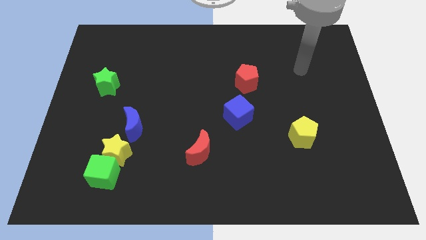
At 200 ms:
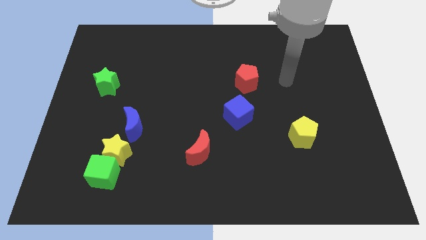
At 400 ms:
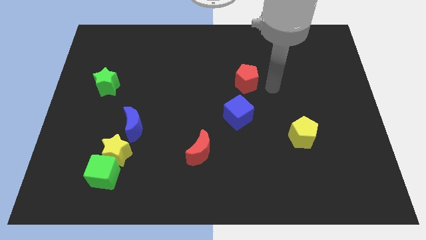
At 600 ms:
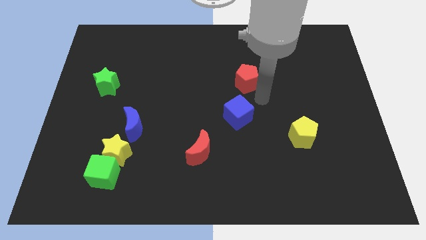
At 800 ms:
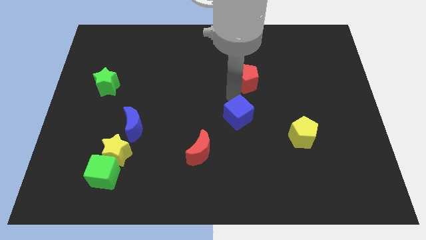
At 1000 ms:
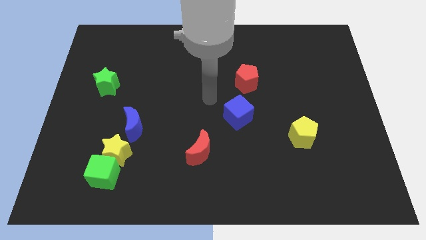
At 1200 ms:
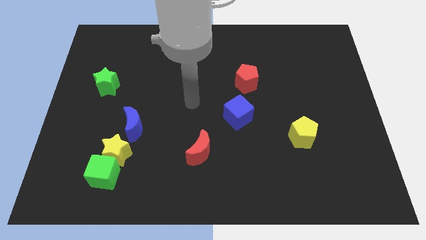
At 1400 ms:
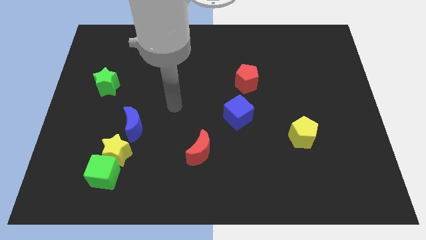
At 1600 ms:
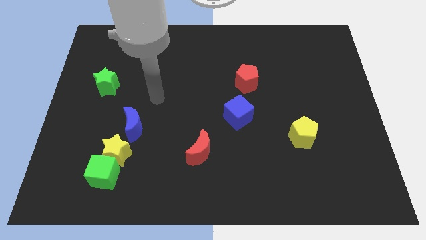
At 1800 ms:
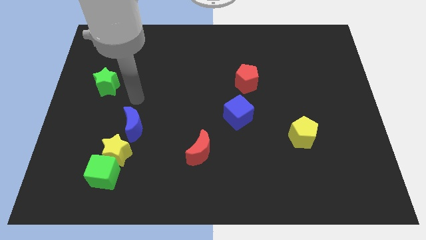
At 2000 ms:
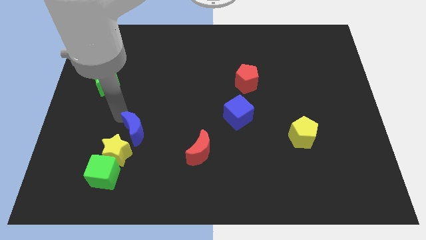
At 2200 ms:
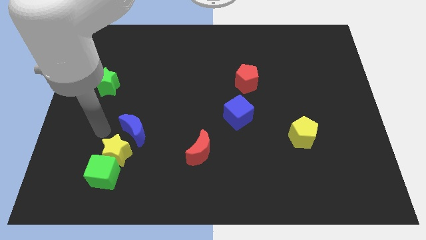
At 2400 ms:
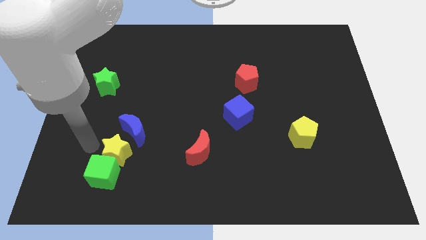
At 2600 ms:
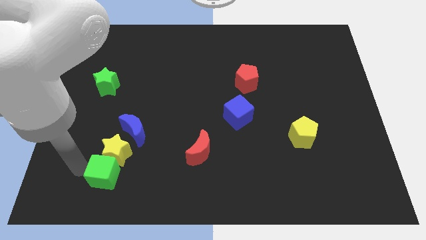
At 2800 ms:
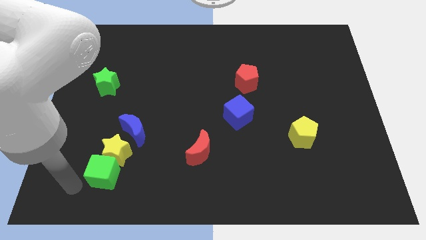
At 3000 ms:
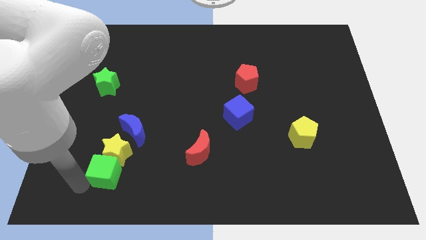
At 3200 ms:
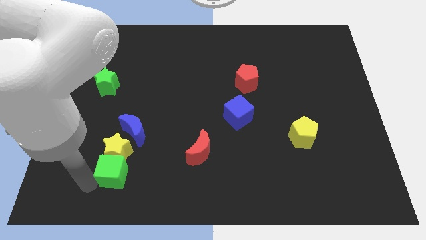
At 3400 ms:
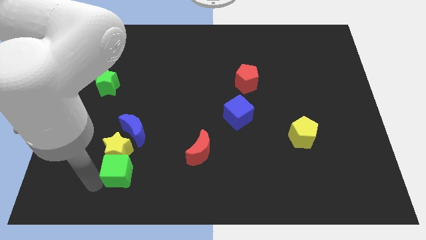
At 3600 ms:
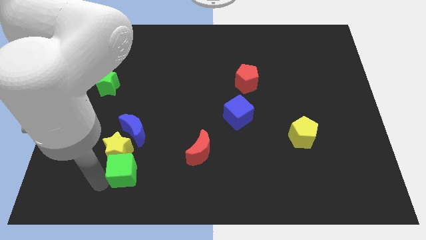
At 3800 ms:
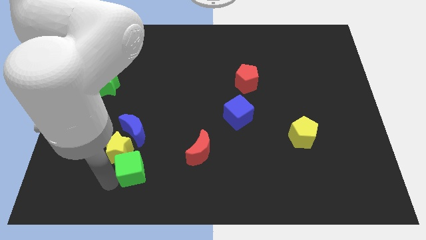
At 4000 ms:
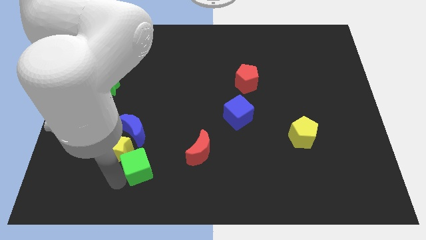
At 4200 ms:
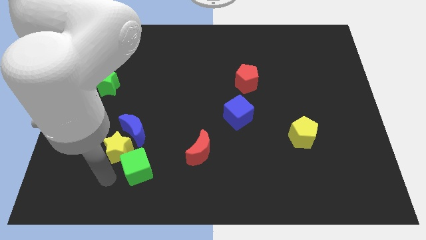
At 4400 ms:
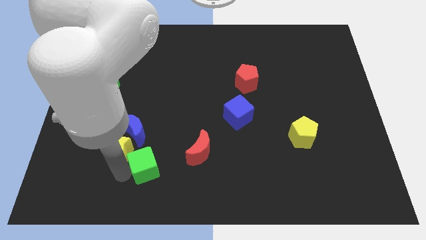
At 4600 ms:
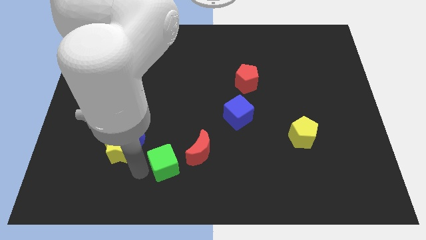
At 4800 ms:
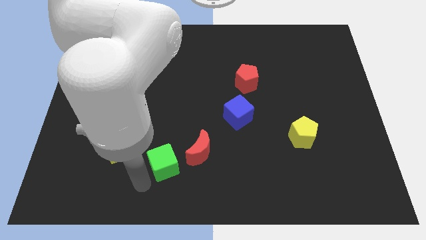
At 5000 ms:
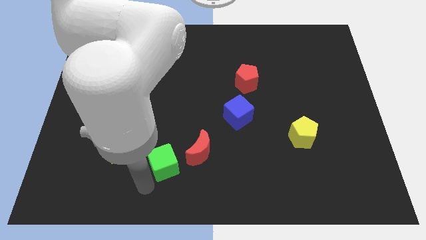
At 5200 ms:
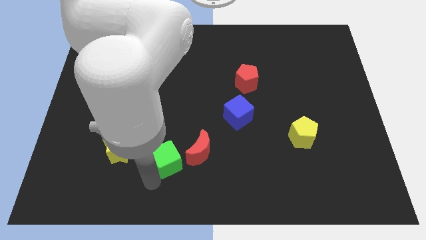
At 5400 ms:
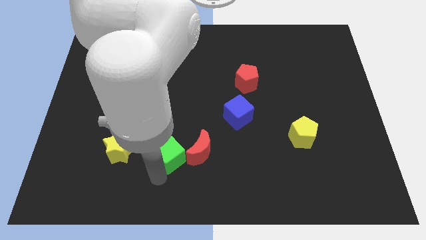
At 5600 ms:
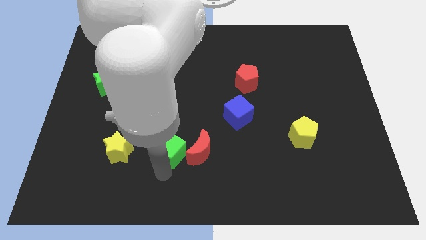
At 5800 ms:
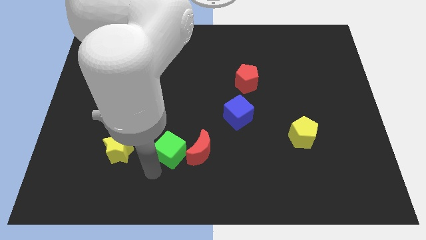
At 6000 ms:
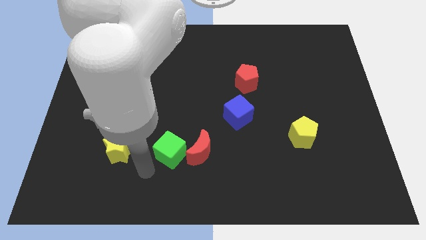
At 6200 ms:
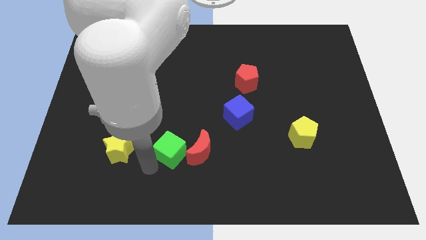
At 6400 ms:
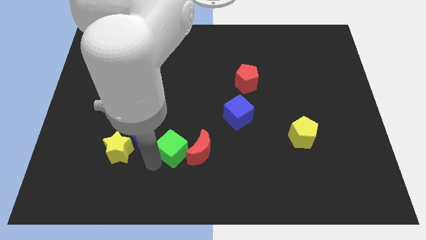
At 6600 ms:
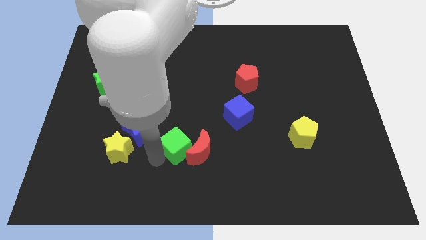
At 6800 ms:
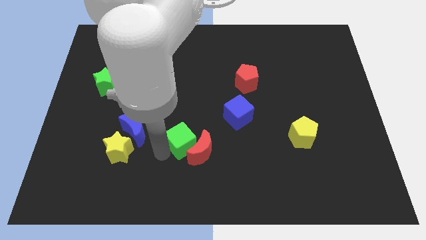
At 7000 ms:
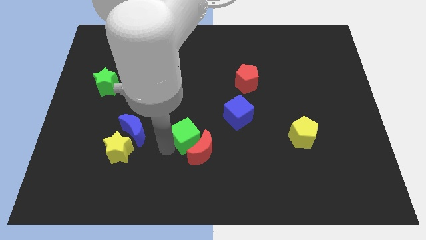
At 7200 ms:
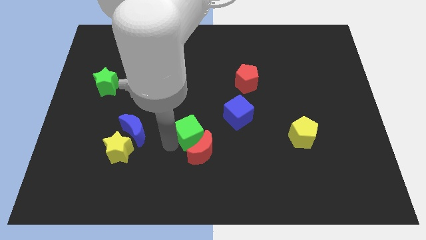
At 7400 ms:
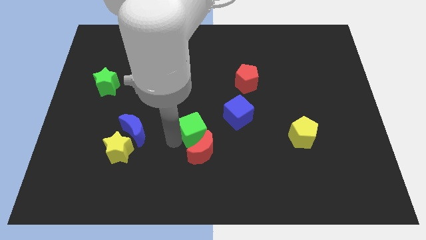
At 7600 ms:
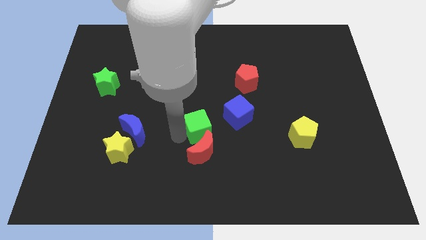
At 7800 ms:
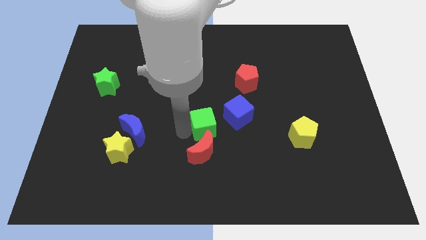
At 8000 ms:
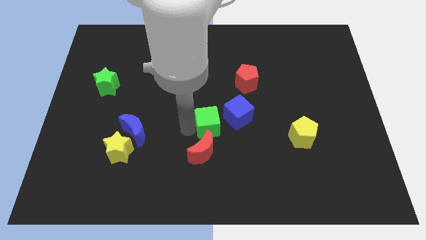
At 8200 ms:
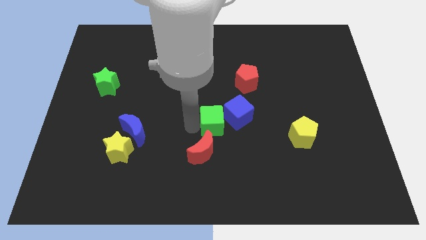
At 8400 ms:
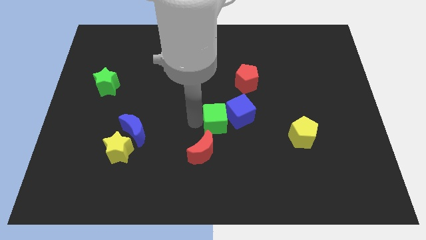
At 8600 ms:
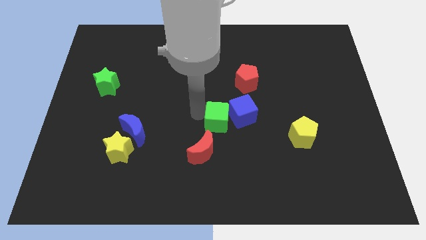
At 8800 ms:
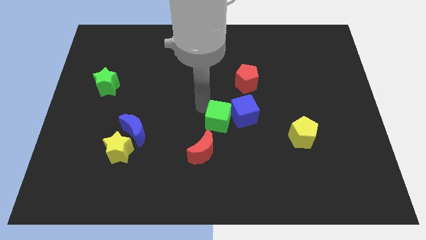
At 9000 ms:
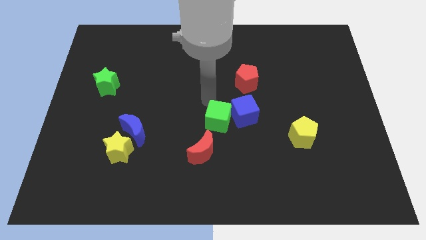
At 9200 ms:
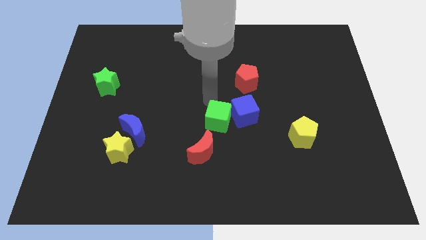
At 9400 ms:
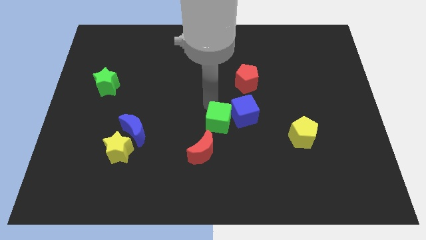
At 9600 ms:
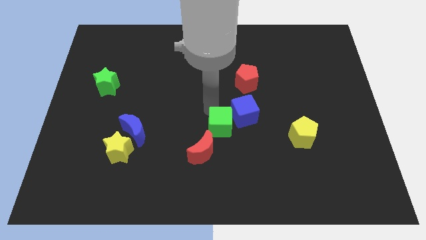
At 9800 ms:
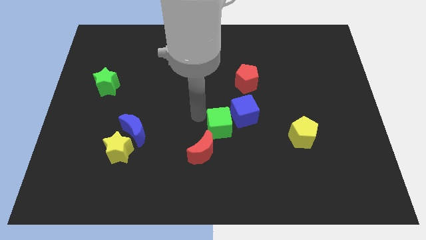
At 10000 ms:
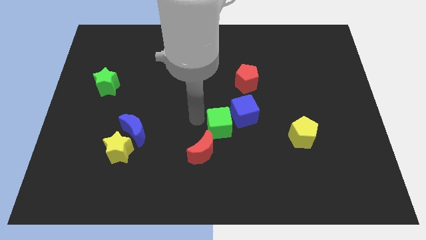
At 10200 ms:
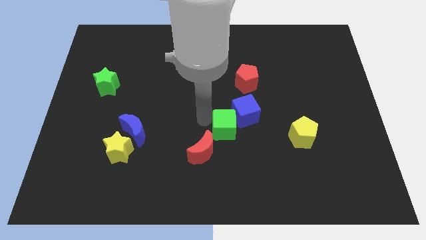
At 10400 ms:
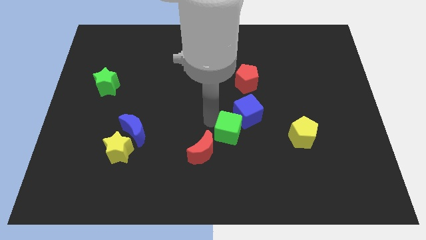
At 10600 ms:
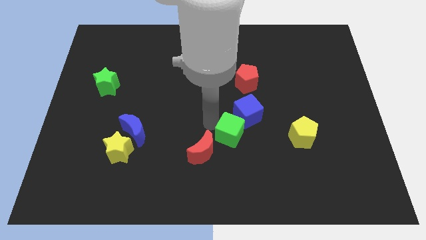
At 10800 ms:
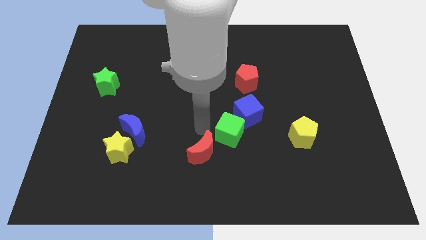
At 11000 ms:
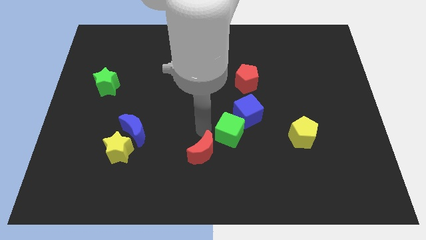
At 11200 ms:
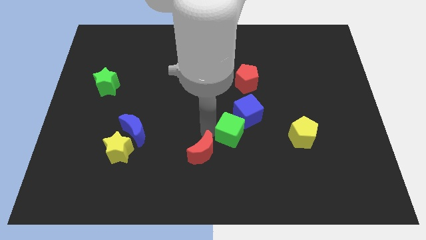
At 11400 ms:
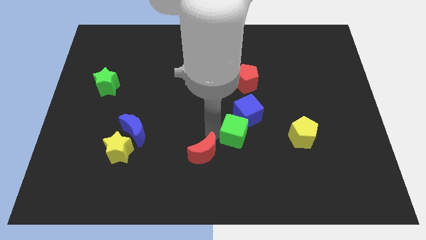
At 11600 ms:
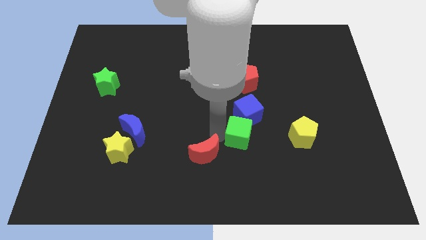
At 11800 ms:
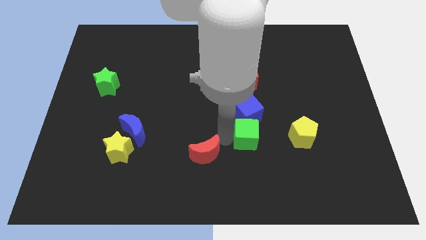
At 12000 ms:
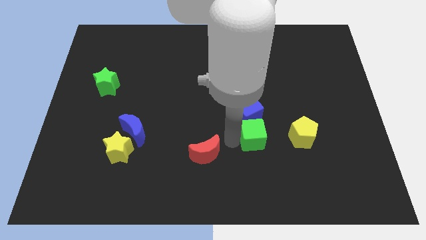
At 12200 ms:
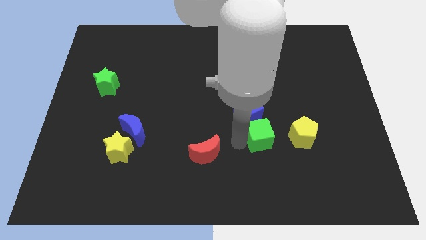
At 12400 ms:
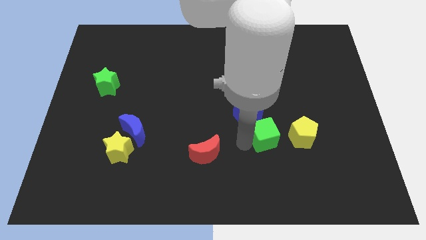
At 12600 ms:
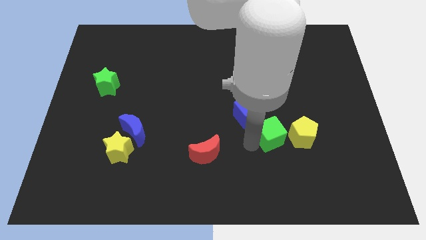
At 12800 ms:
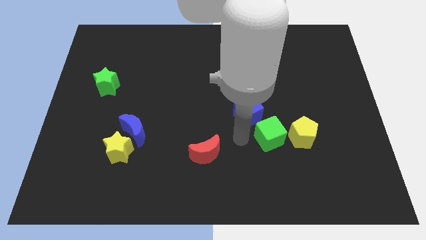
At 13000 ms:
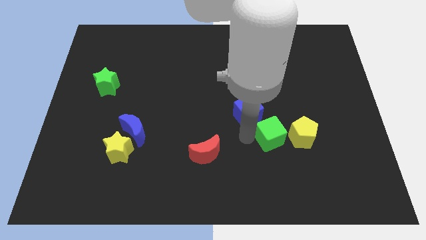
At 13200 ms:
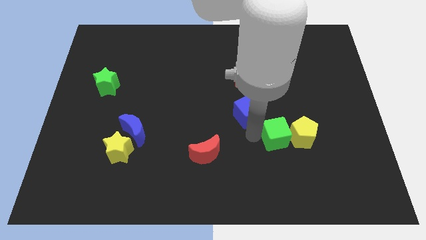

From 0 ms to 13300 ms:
slide the green cube close to the yellow pentagon

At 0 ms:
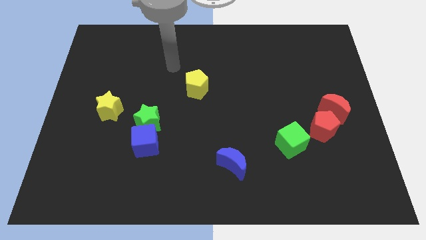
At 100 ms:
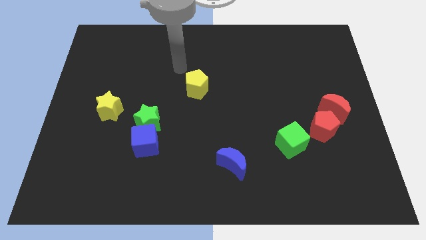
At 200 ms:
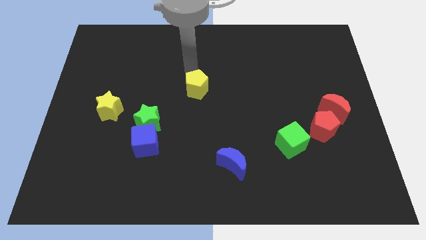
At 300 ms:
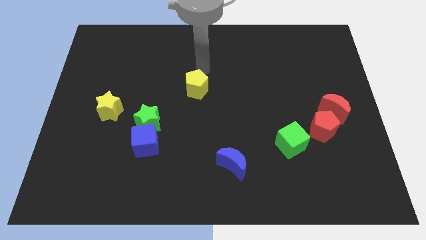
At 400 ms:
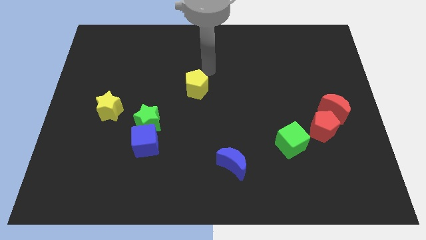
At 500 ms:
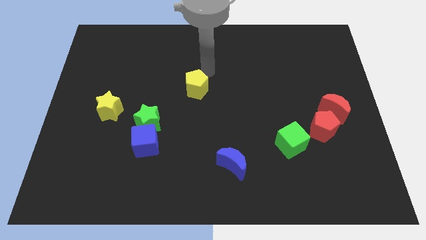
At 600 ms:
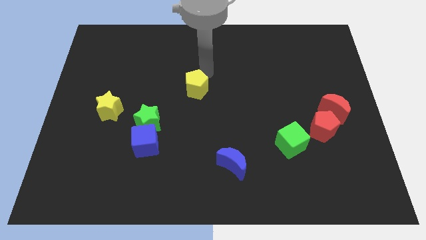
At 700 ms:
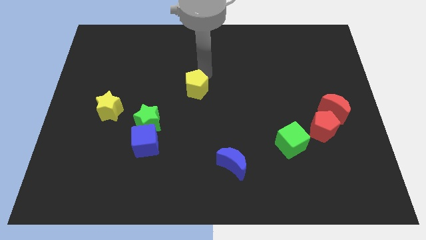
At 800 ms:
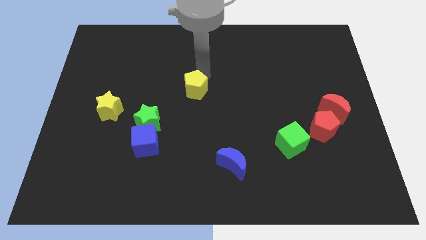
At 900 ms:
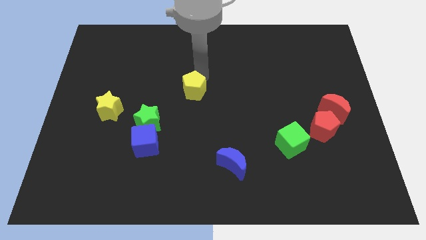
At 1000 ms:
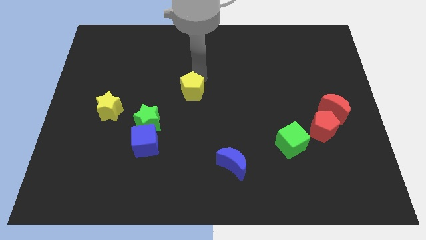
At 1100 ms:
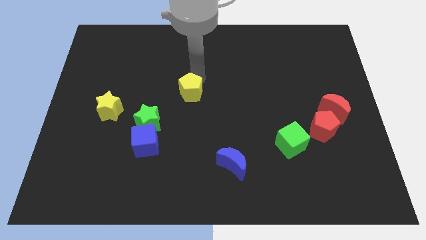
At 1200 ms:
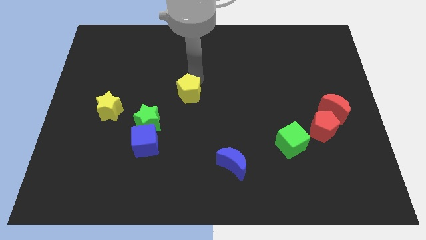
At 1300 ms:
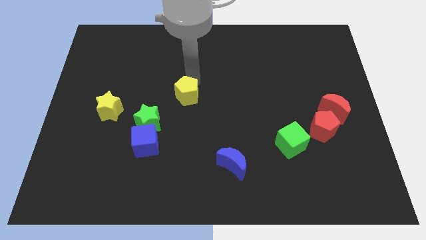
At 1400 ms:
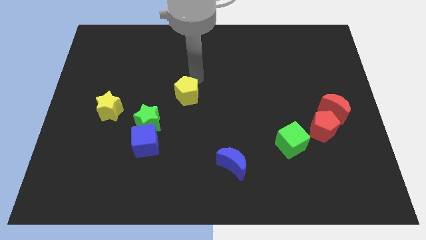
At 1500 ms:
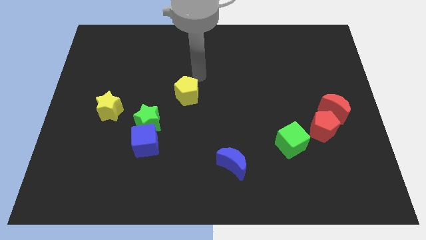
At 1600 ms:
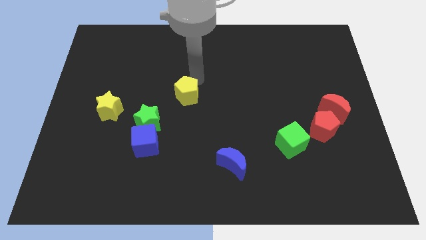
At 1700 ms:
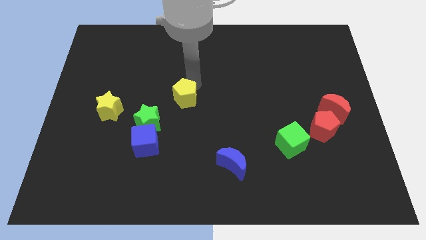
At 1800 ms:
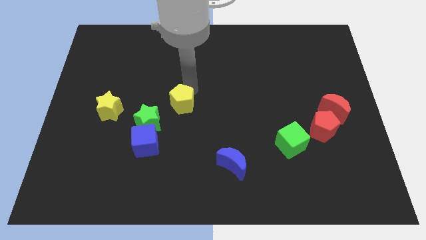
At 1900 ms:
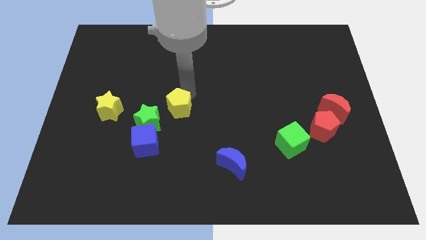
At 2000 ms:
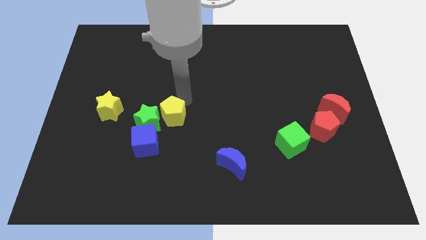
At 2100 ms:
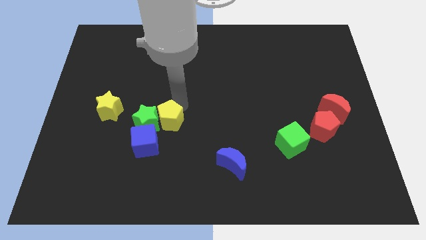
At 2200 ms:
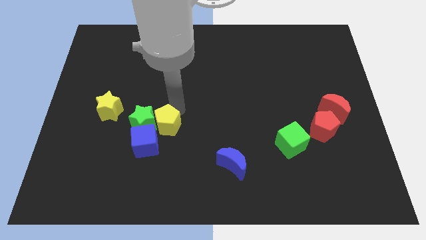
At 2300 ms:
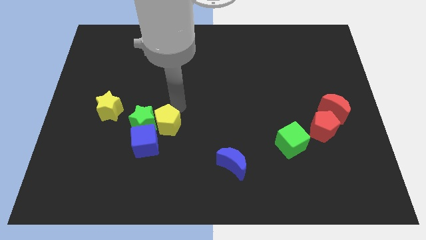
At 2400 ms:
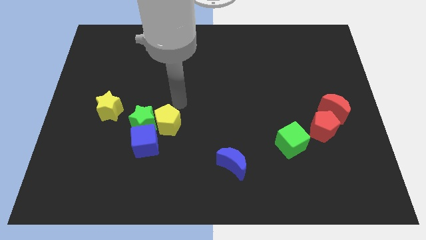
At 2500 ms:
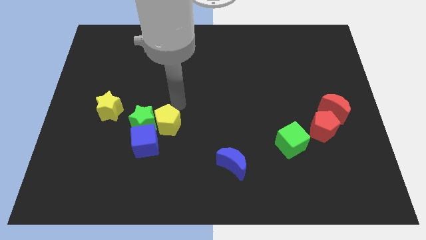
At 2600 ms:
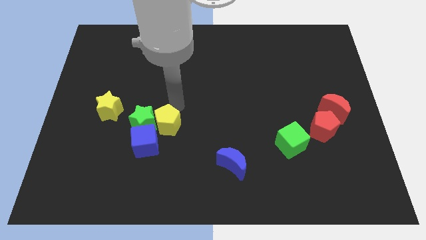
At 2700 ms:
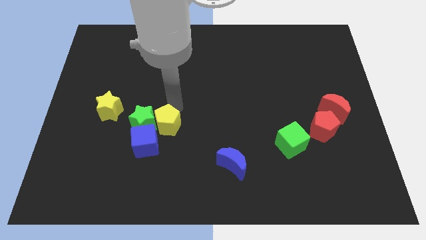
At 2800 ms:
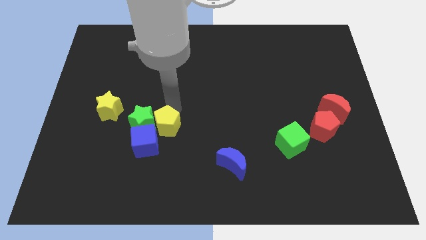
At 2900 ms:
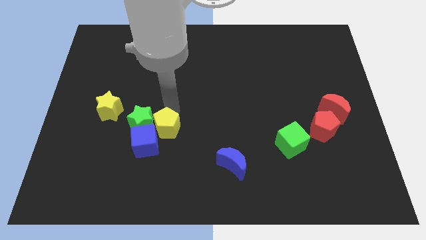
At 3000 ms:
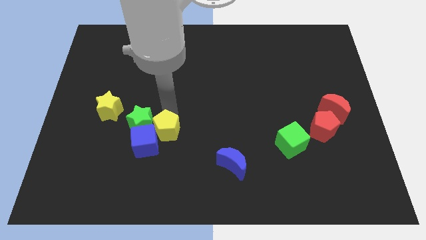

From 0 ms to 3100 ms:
push the yellow pentagon to the blue cube
